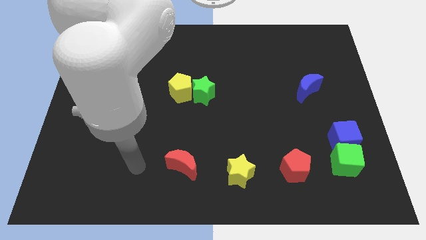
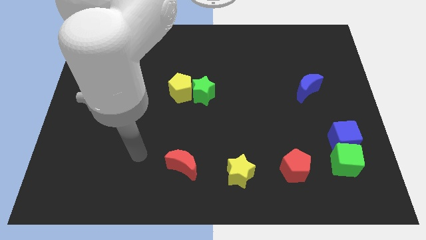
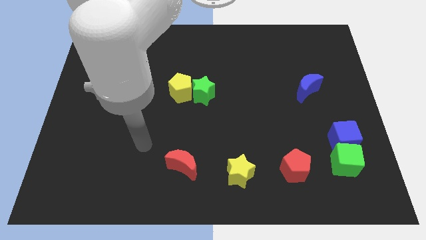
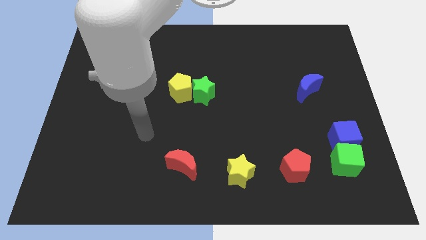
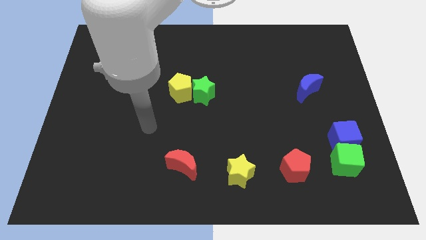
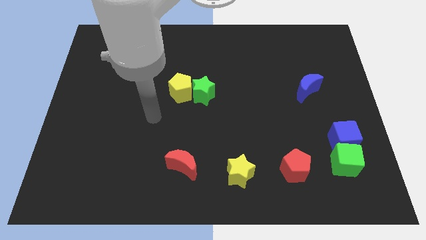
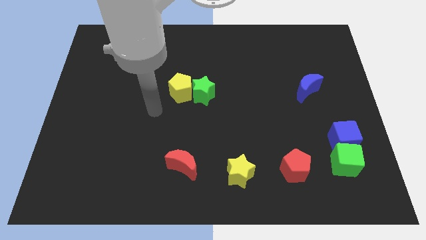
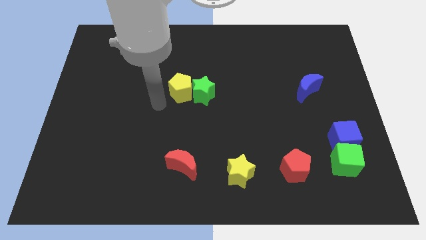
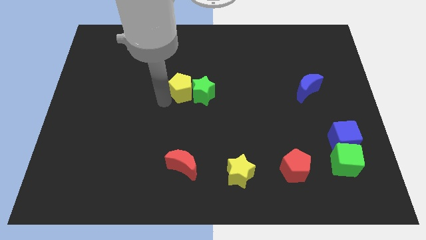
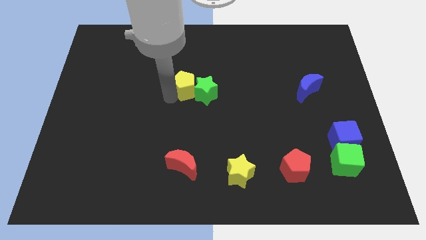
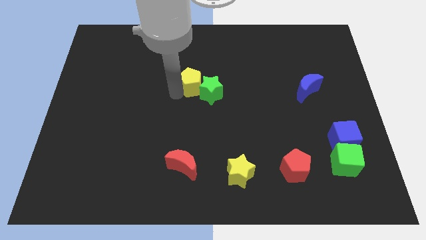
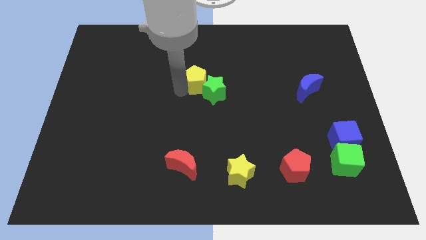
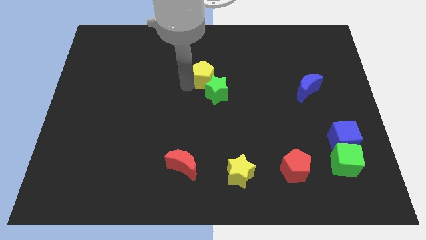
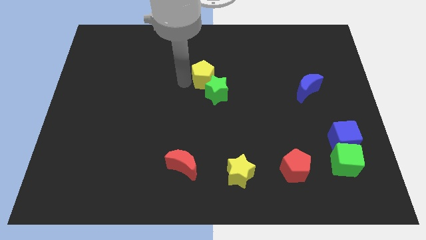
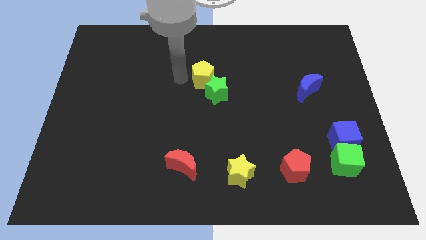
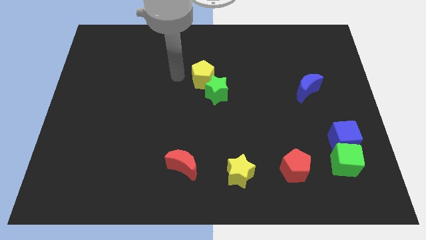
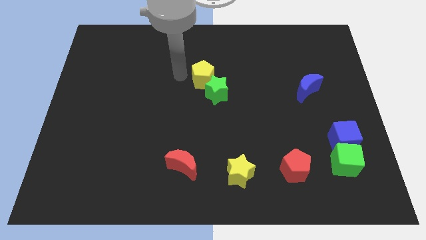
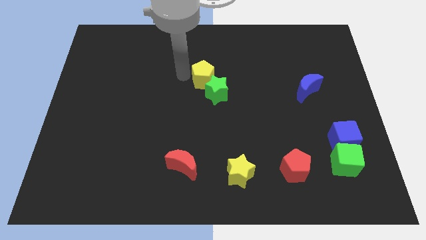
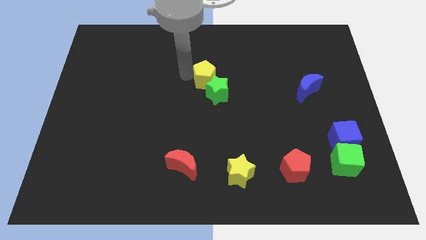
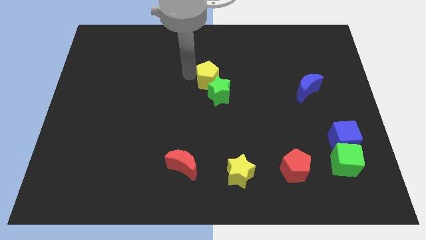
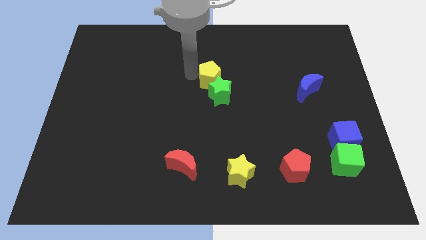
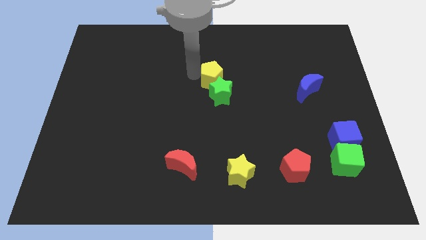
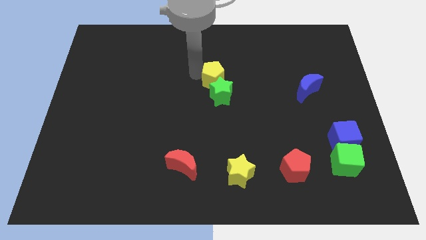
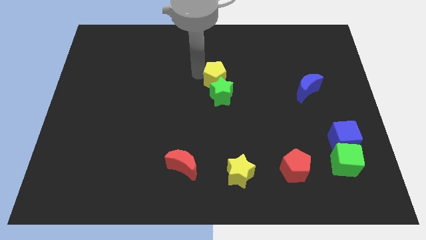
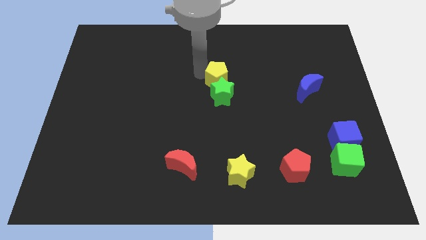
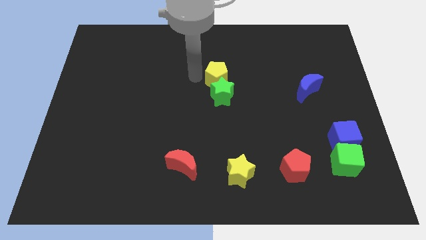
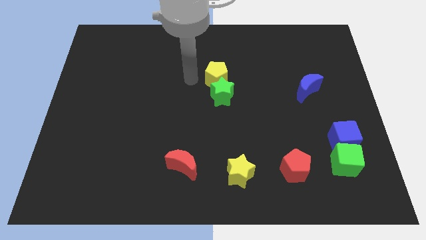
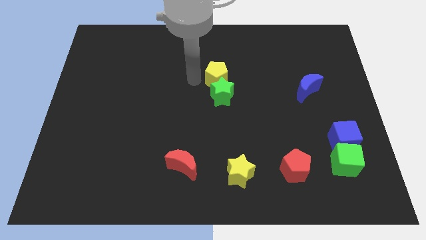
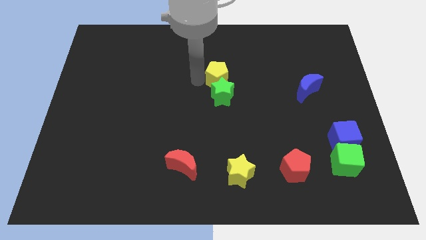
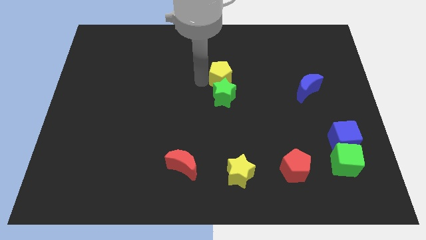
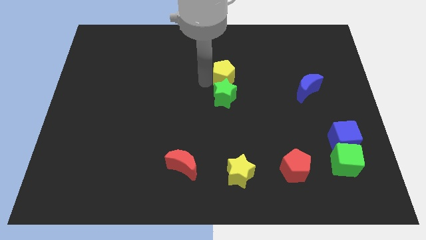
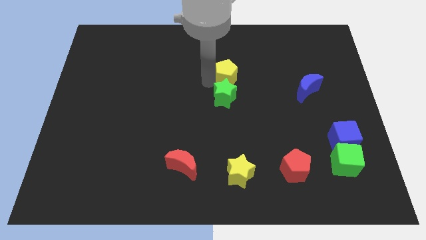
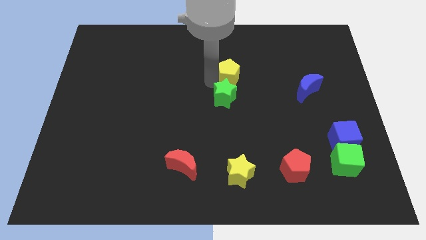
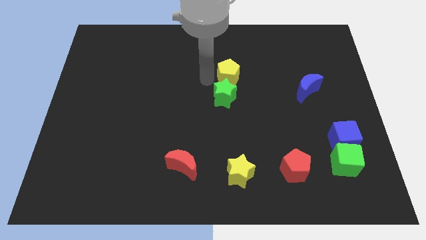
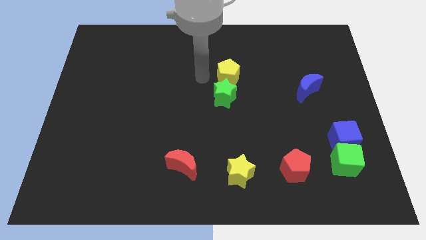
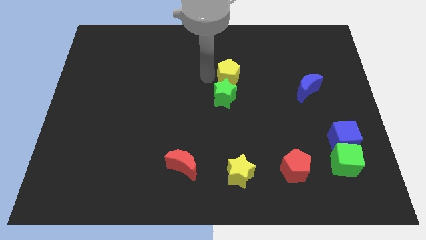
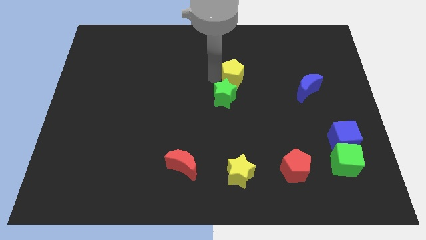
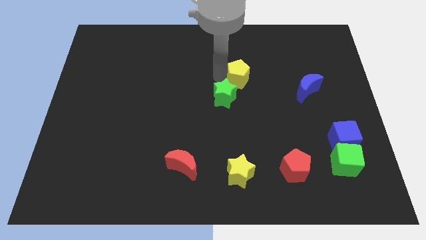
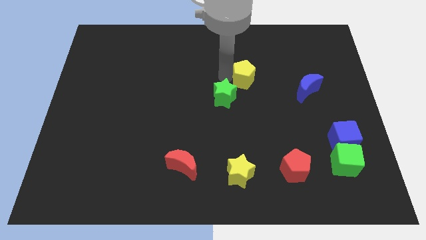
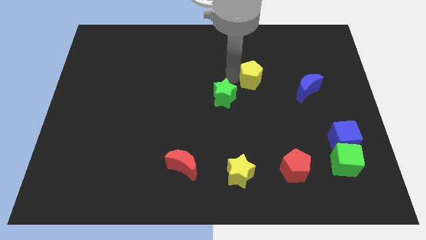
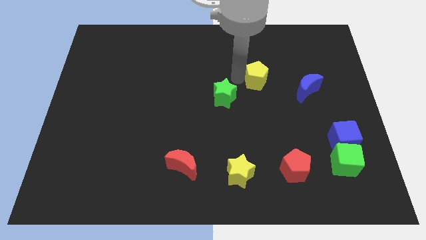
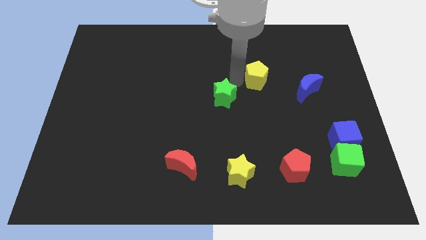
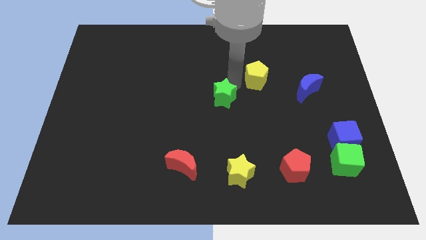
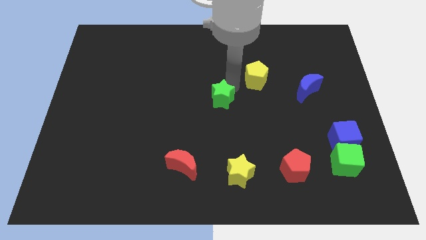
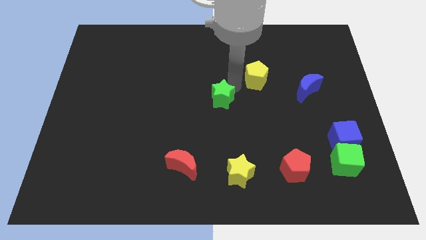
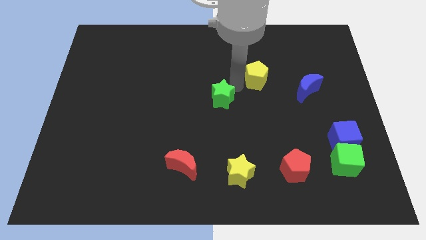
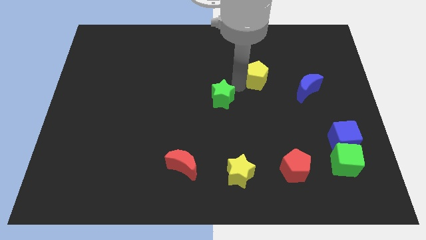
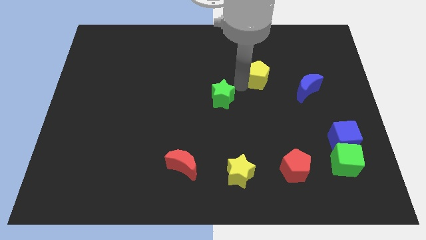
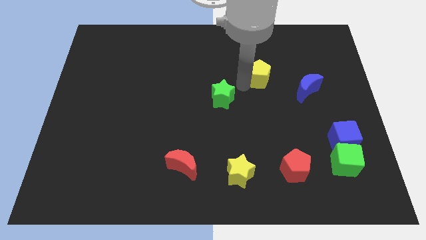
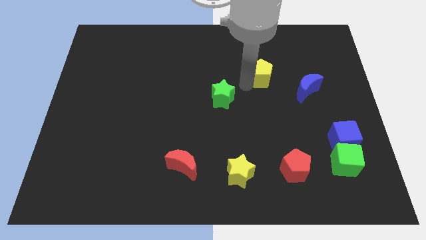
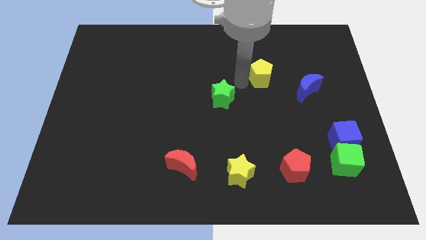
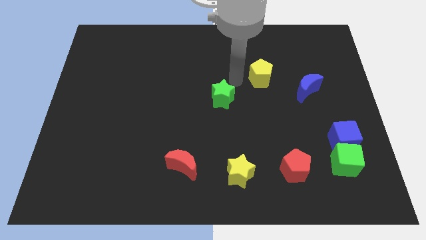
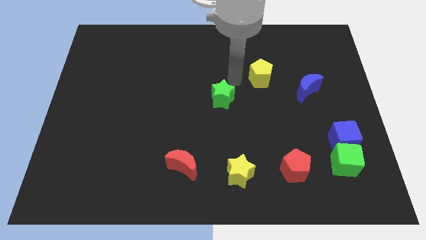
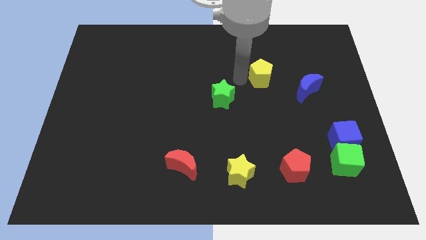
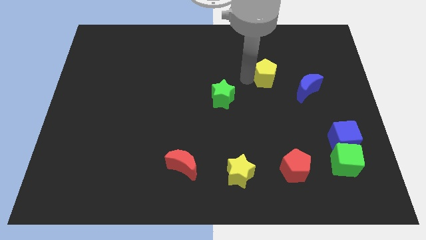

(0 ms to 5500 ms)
put the yellow pentagon to the top left side of the blue moon

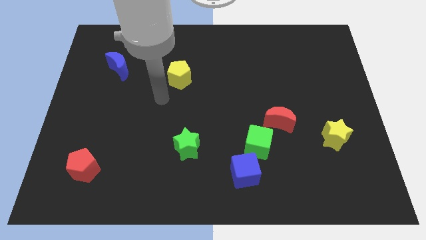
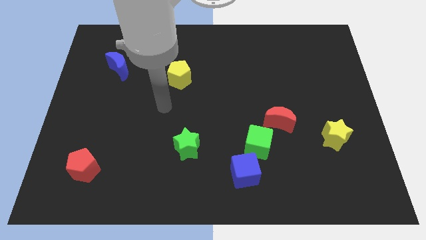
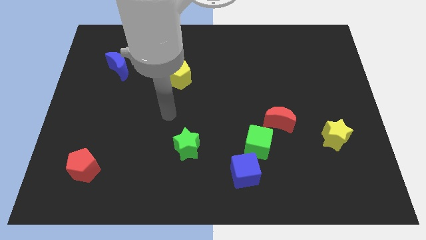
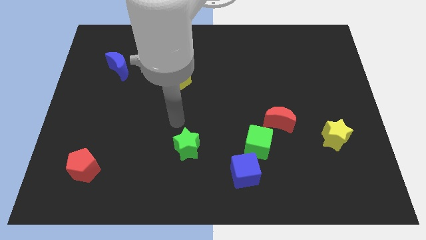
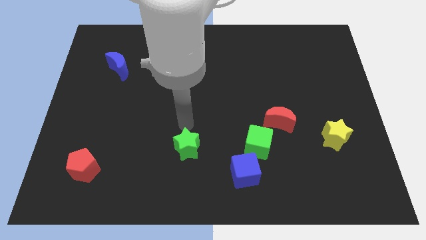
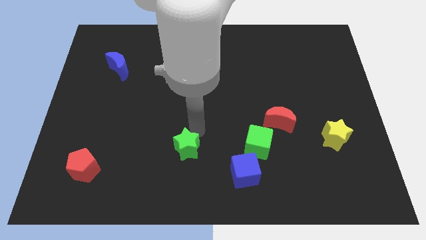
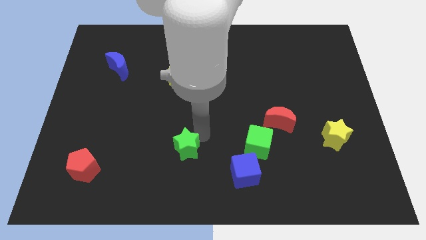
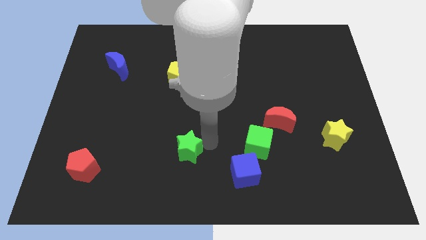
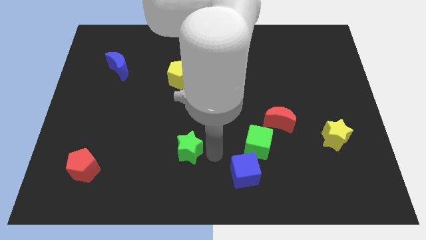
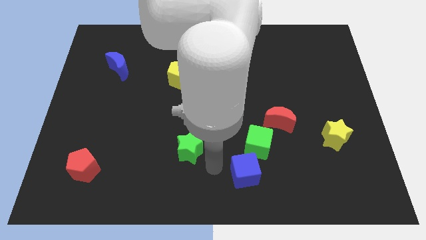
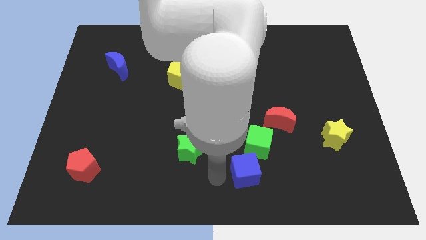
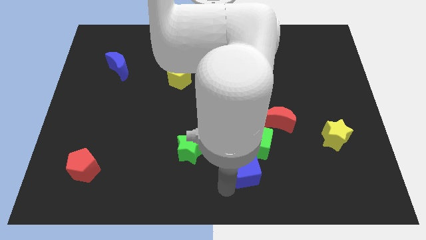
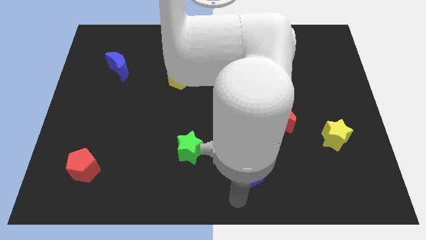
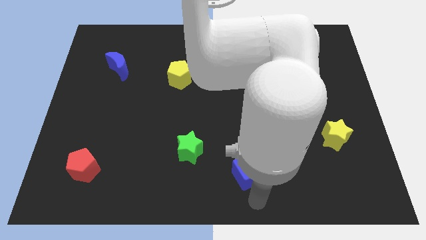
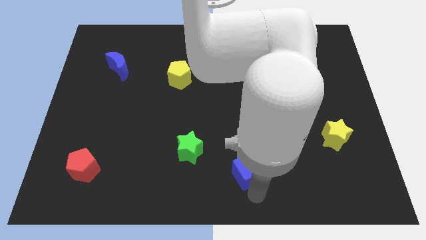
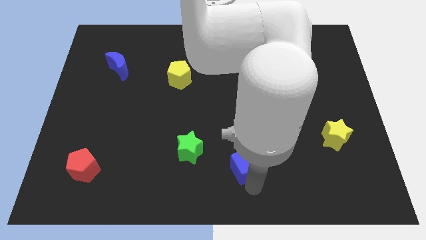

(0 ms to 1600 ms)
push the blue cube to the right of the green star
